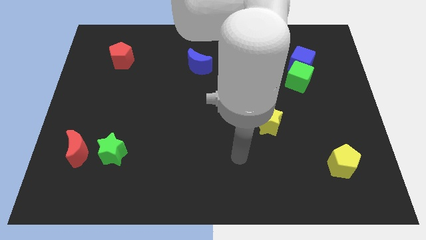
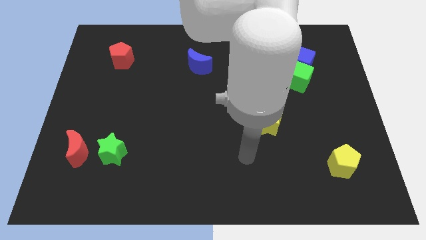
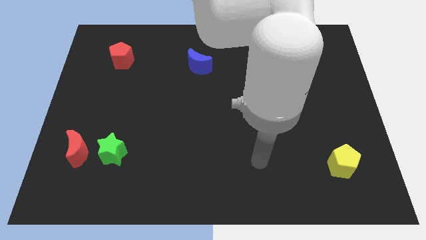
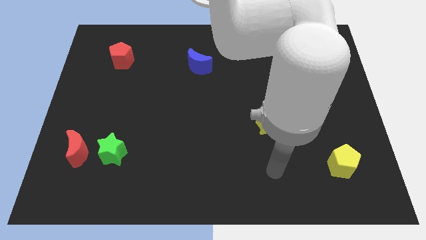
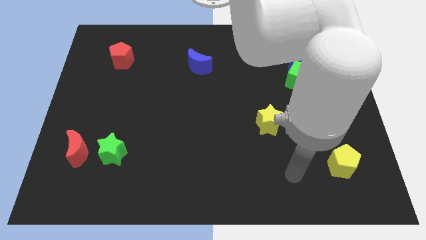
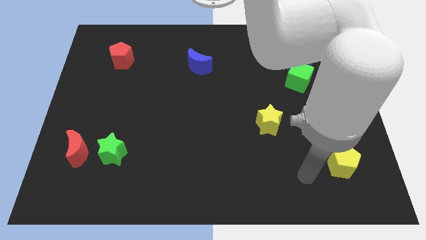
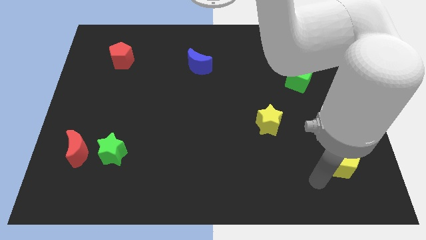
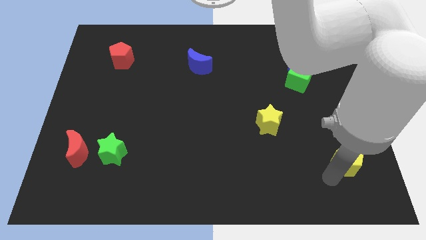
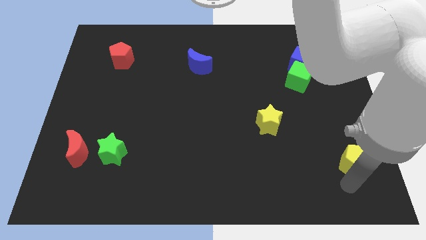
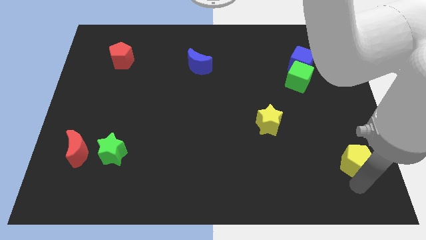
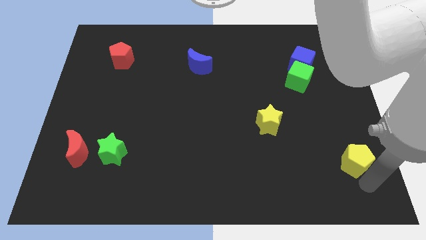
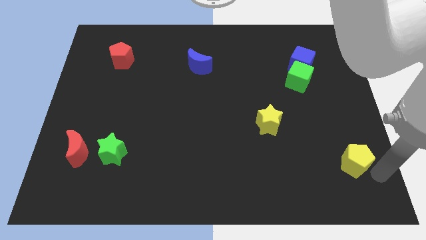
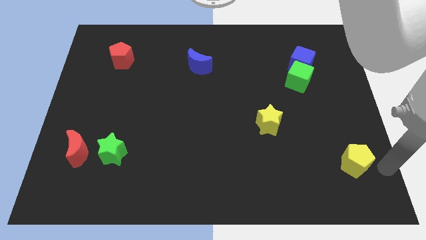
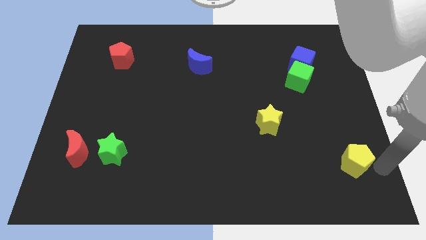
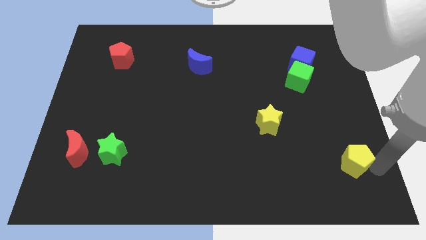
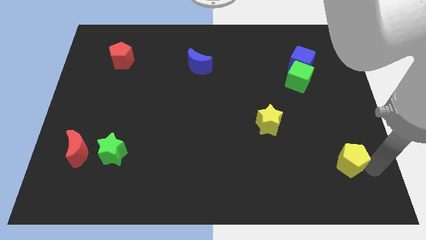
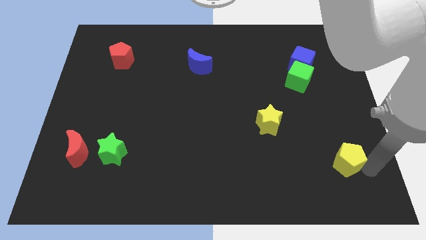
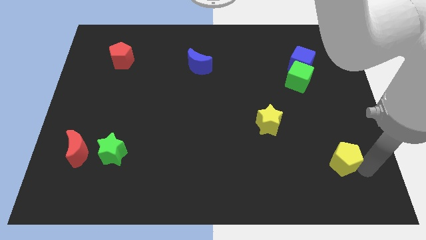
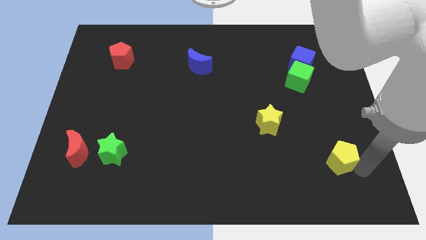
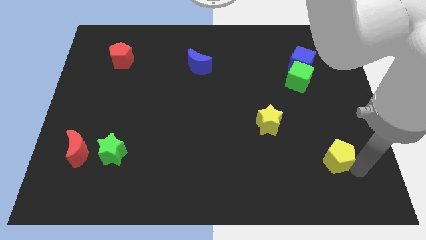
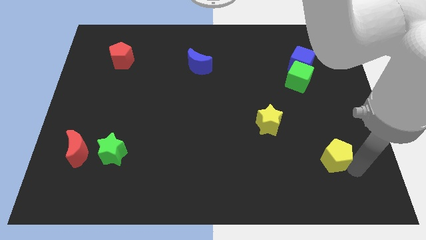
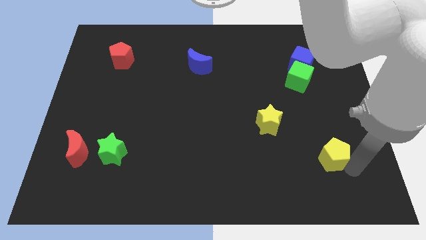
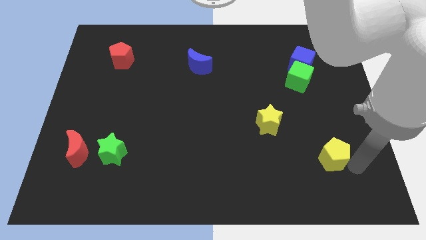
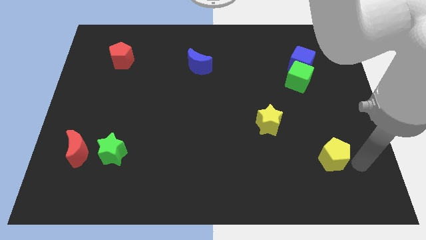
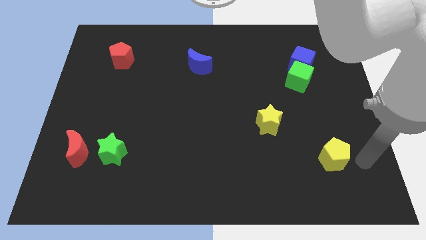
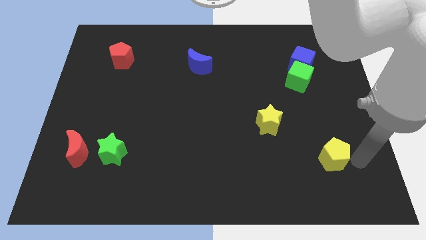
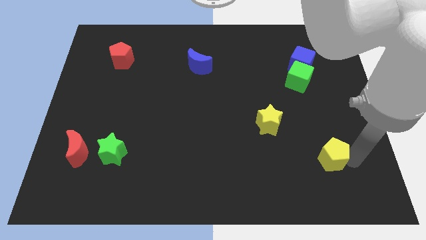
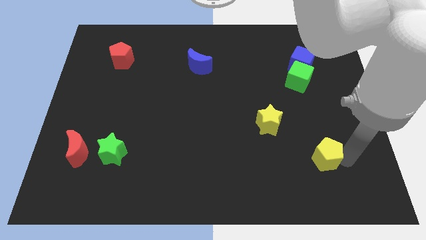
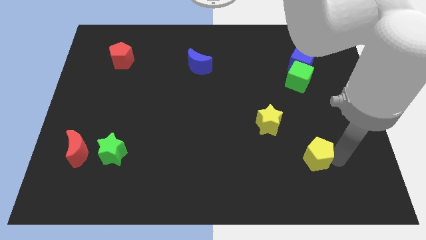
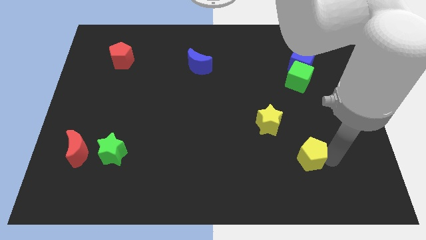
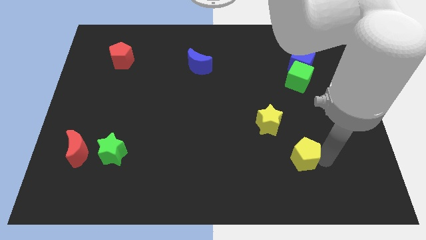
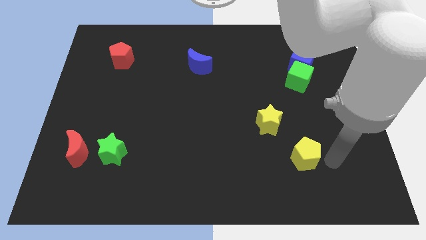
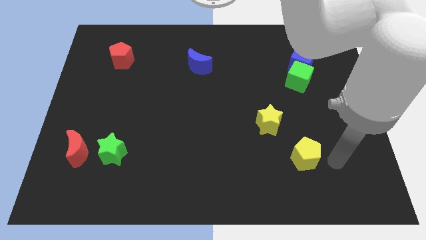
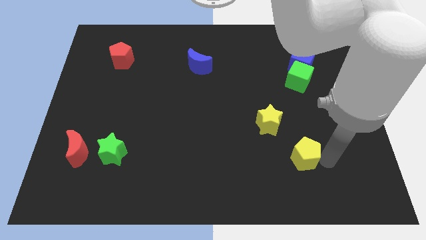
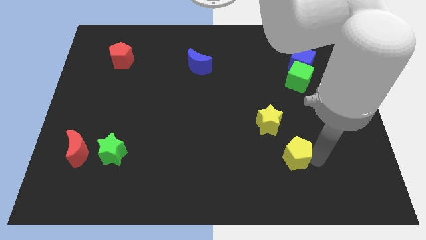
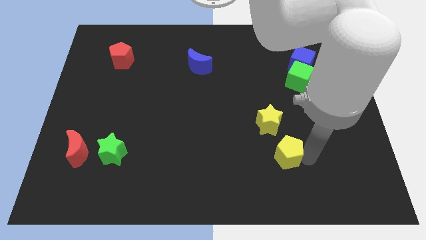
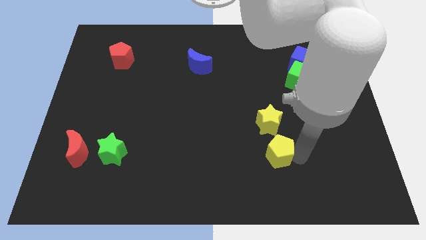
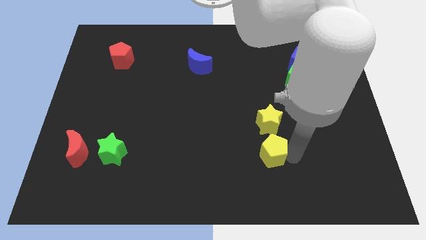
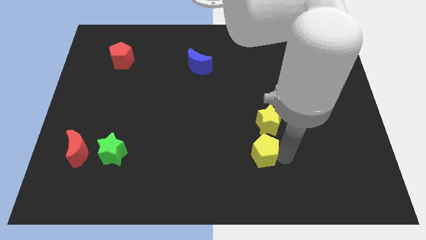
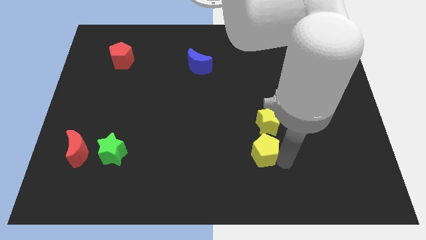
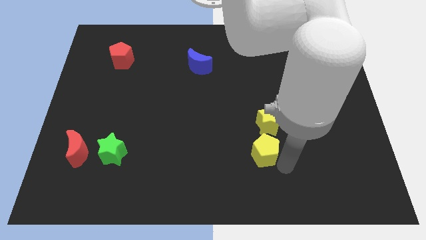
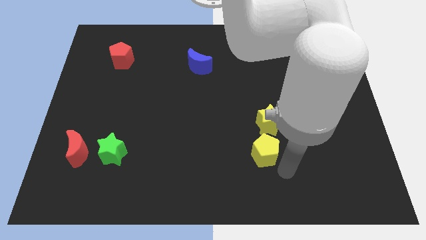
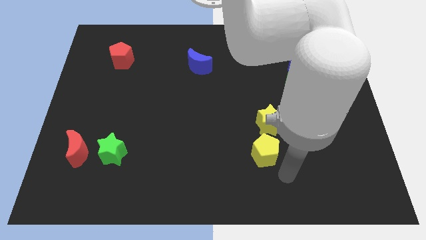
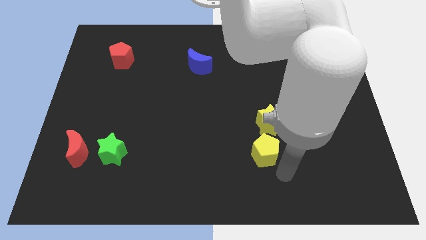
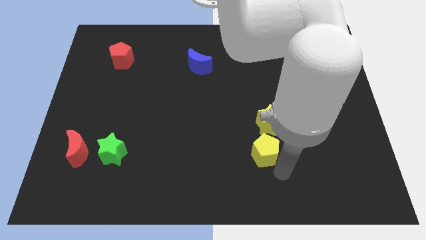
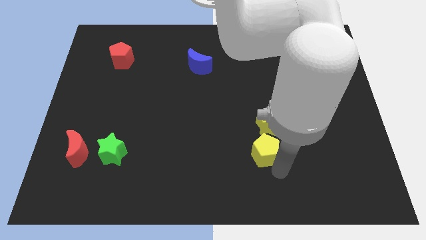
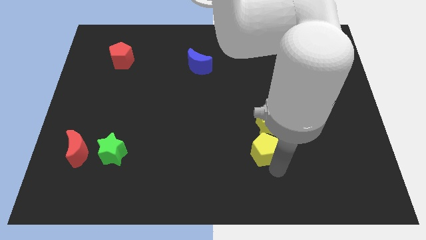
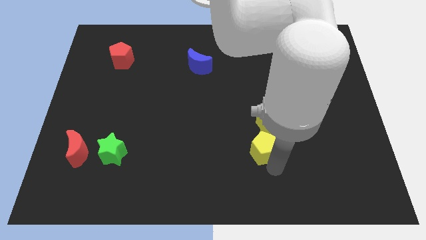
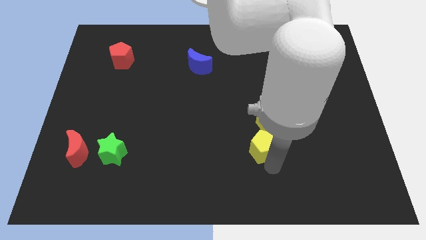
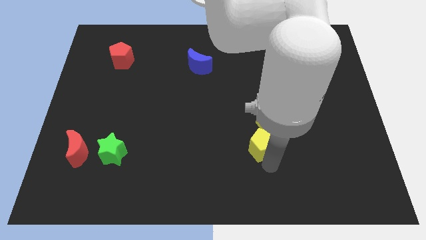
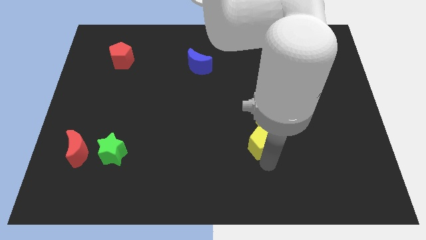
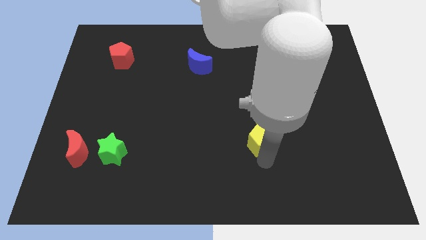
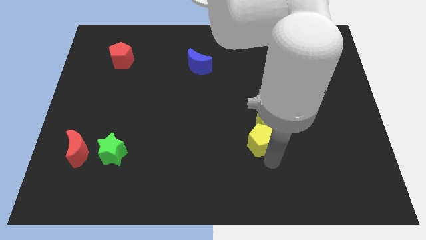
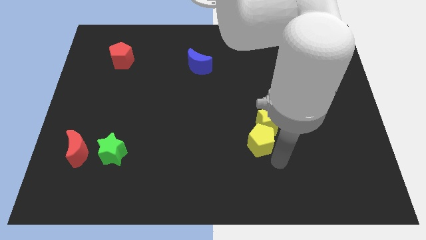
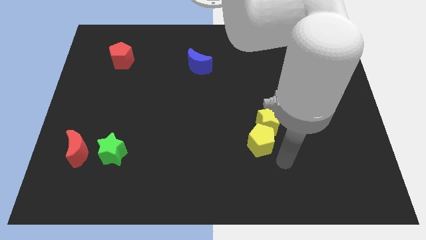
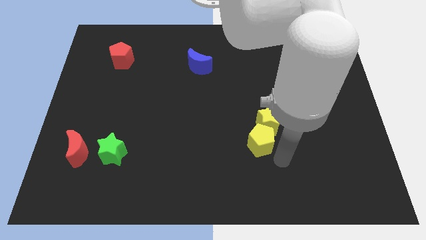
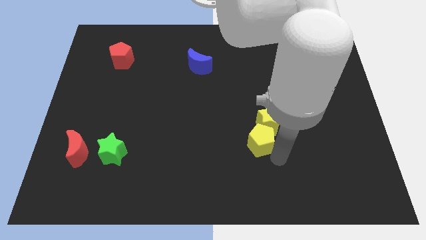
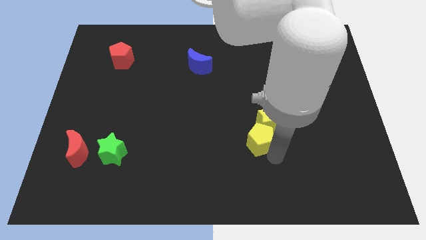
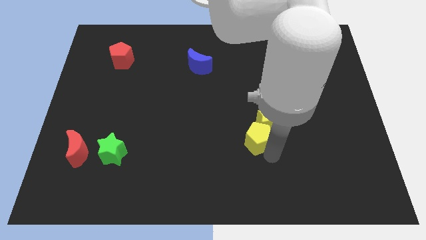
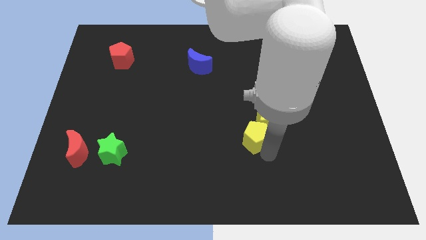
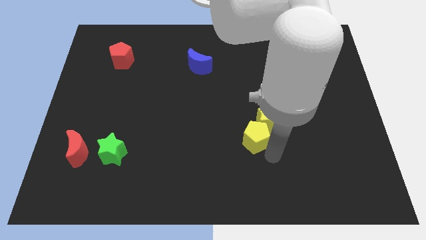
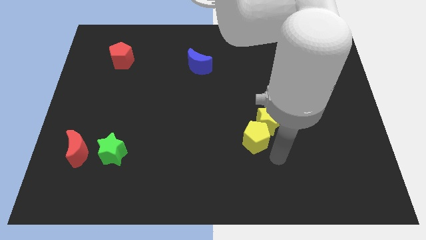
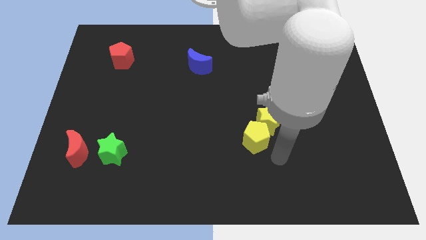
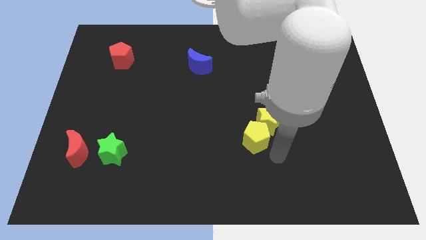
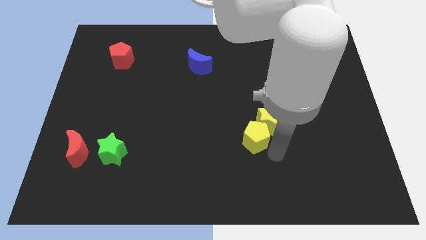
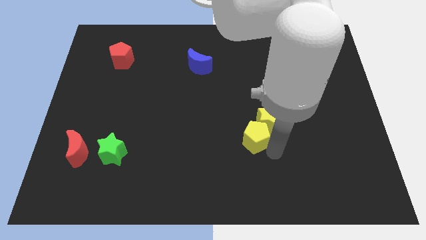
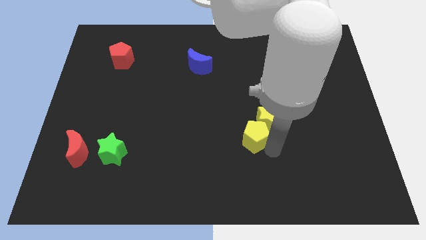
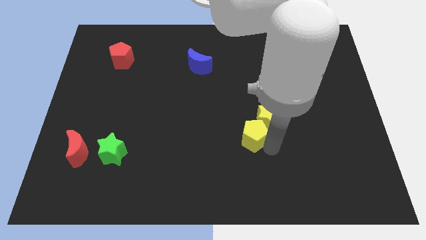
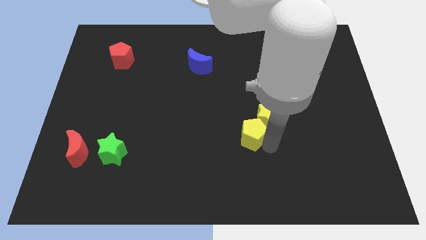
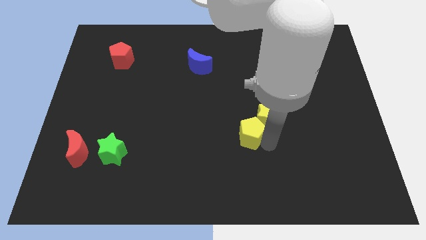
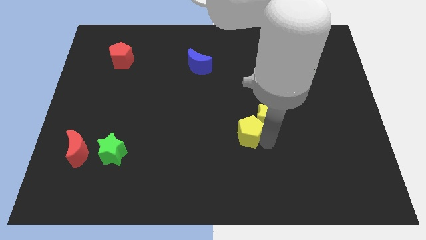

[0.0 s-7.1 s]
slide the yellow pentagon to the center of the board
